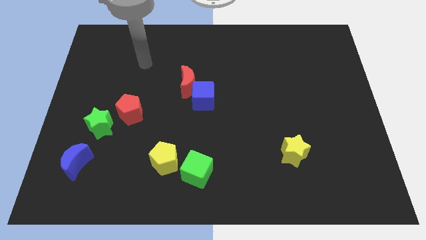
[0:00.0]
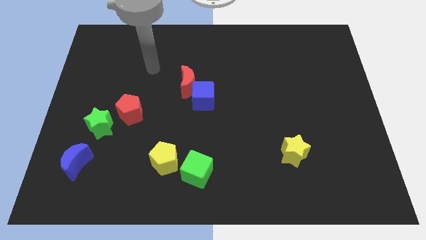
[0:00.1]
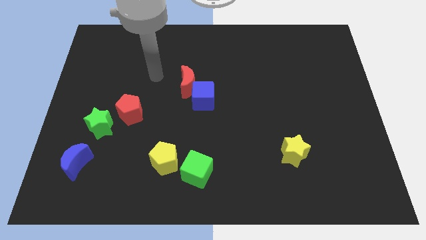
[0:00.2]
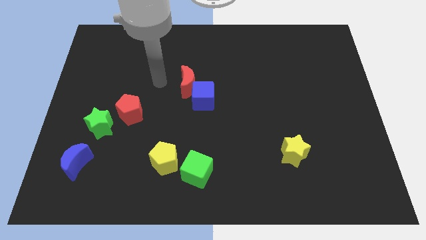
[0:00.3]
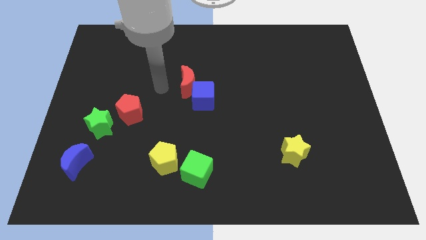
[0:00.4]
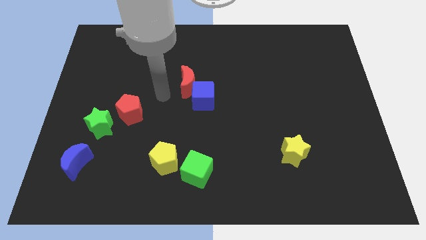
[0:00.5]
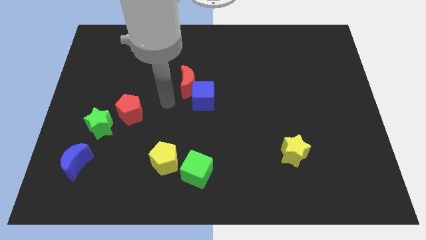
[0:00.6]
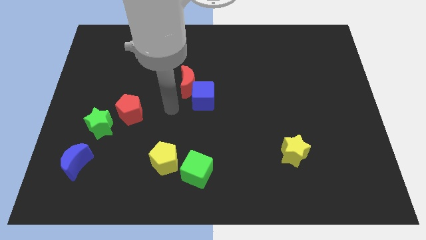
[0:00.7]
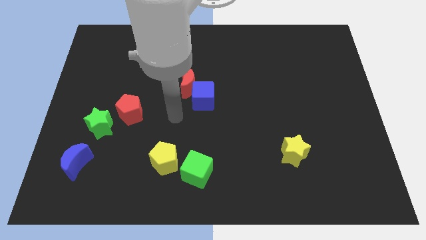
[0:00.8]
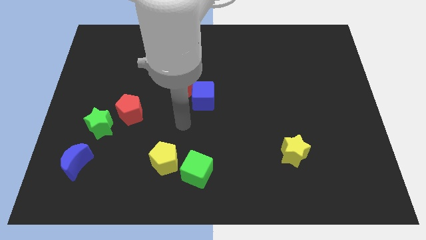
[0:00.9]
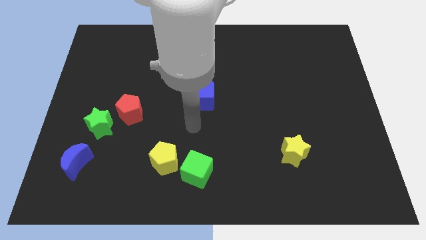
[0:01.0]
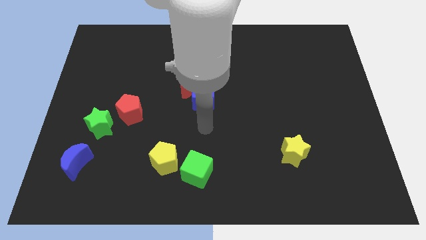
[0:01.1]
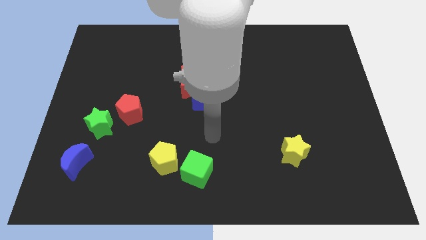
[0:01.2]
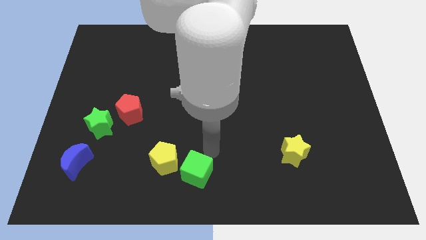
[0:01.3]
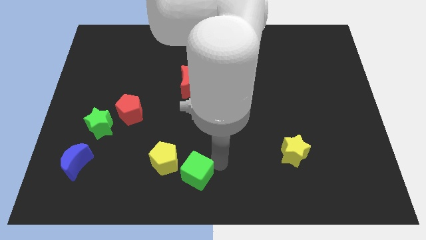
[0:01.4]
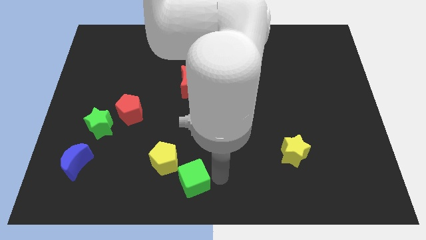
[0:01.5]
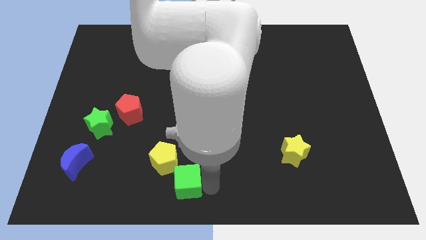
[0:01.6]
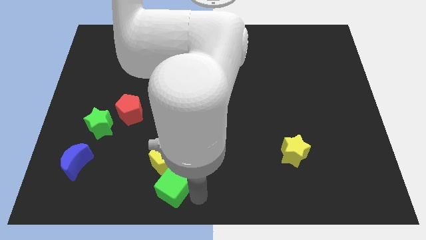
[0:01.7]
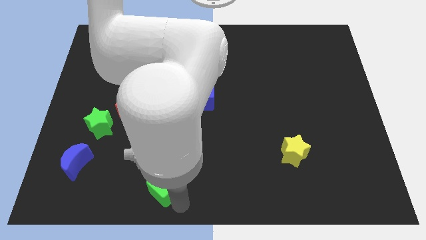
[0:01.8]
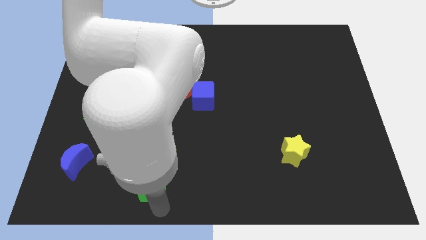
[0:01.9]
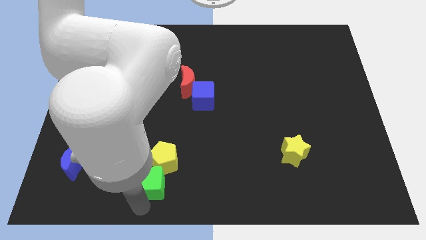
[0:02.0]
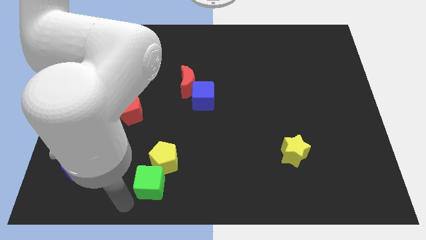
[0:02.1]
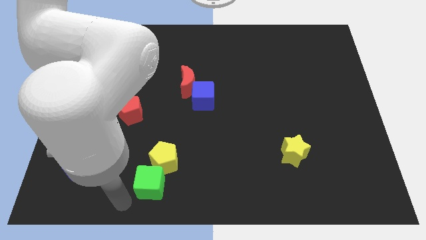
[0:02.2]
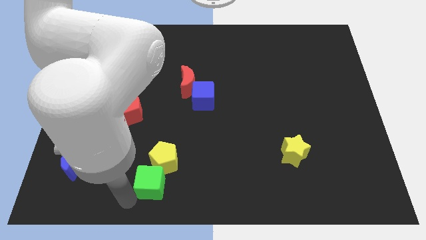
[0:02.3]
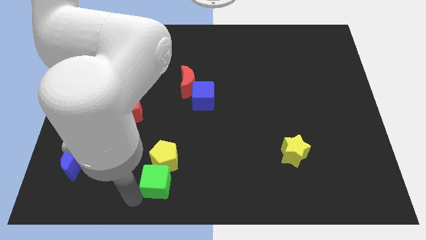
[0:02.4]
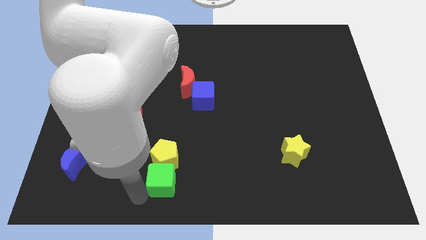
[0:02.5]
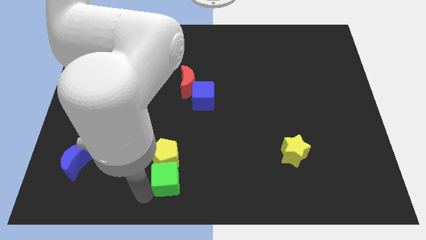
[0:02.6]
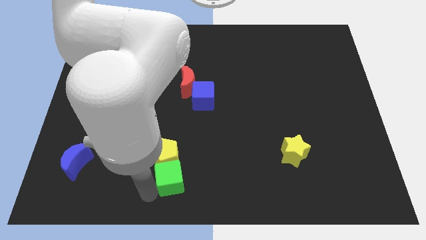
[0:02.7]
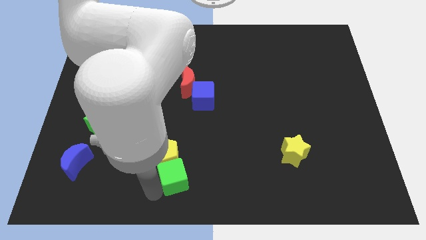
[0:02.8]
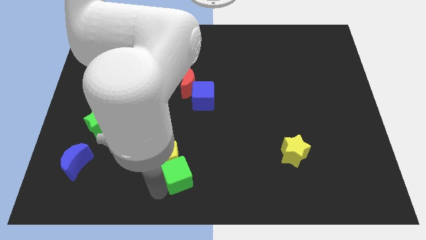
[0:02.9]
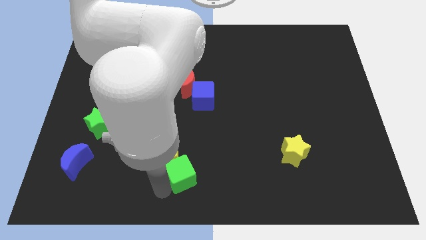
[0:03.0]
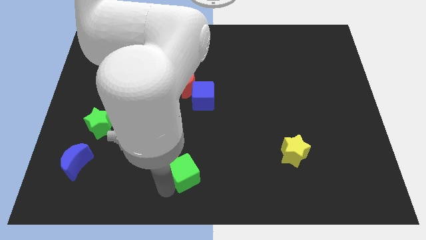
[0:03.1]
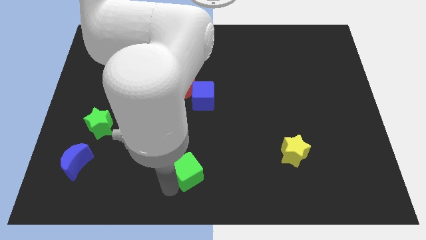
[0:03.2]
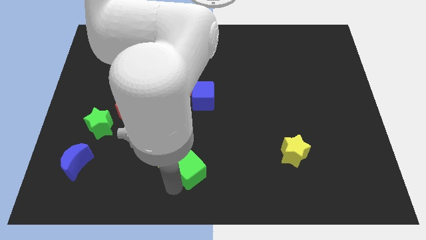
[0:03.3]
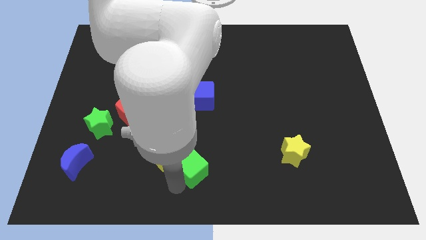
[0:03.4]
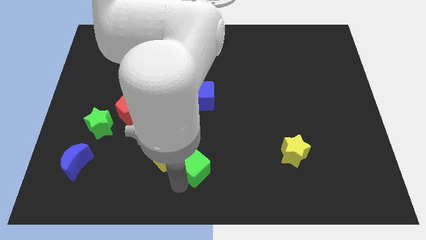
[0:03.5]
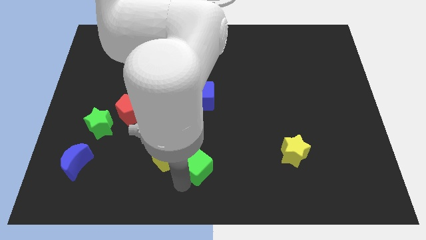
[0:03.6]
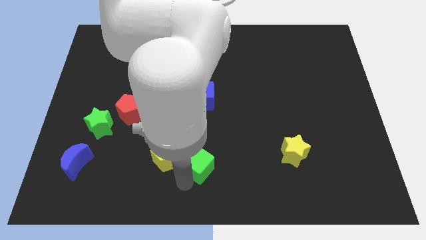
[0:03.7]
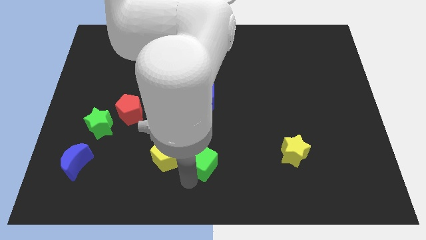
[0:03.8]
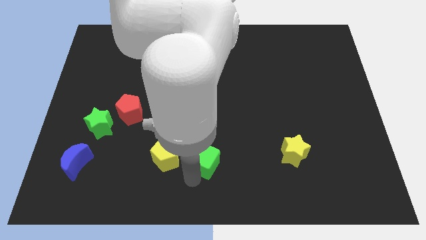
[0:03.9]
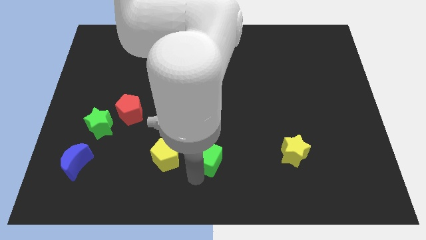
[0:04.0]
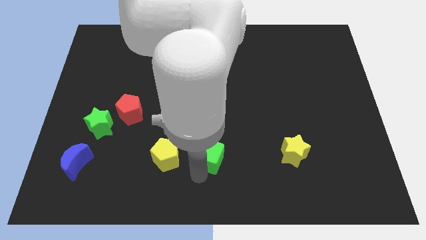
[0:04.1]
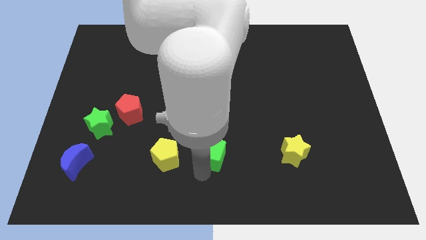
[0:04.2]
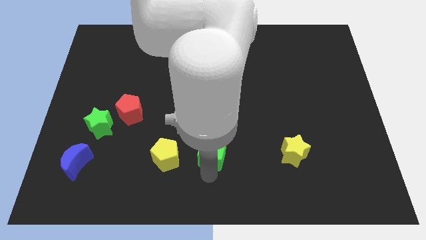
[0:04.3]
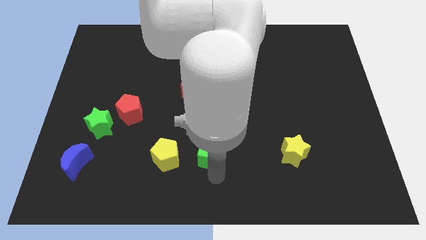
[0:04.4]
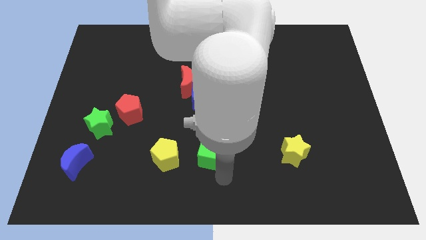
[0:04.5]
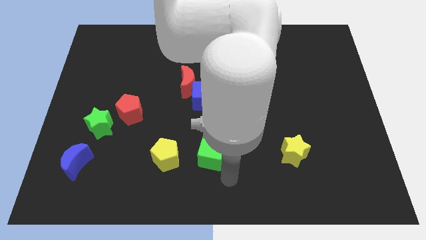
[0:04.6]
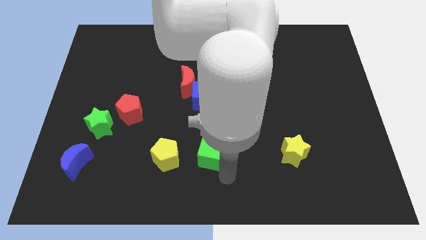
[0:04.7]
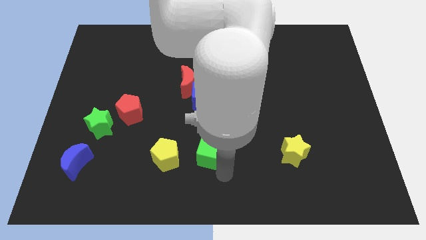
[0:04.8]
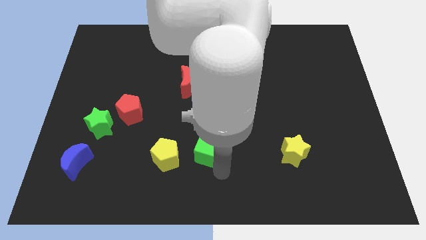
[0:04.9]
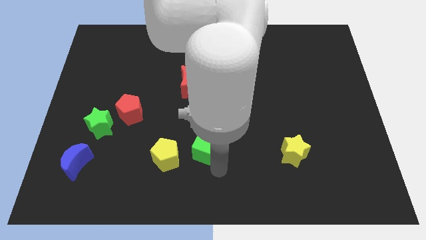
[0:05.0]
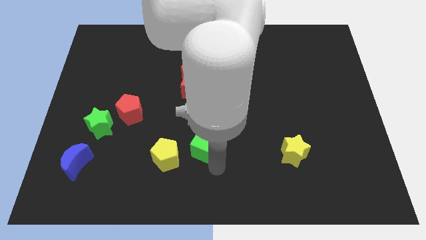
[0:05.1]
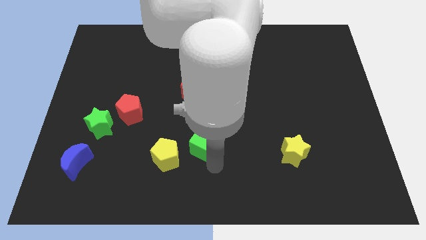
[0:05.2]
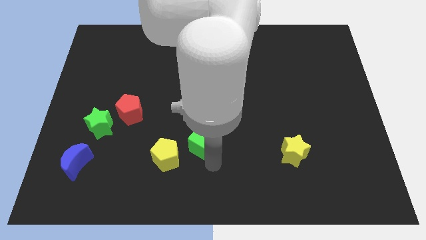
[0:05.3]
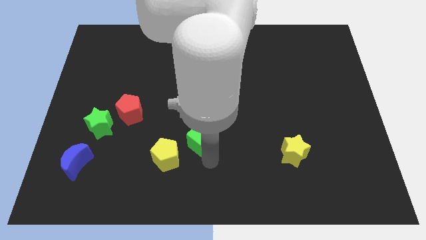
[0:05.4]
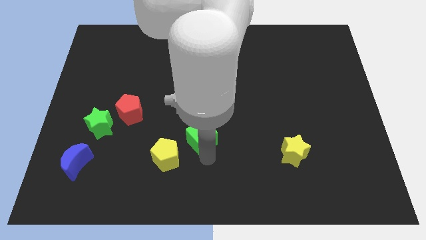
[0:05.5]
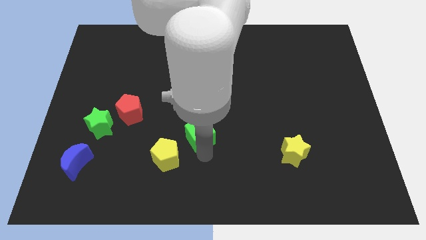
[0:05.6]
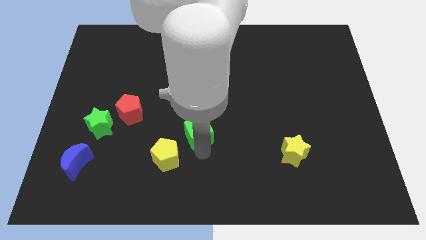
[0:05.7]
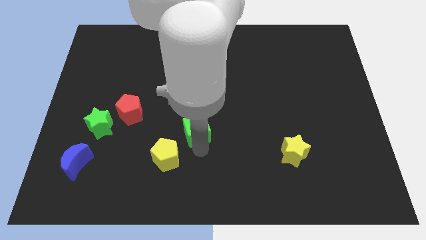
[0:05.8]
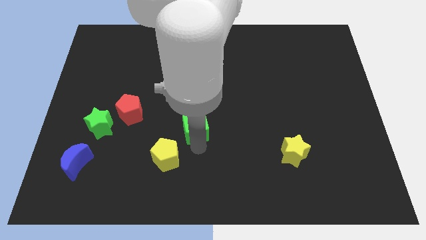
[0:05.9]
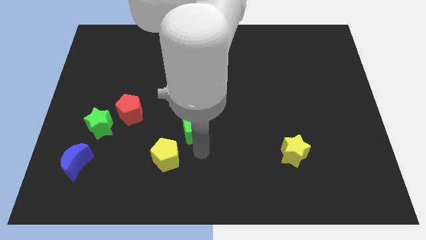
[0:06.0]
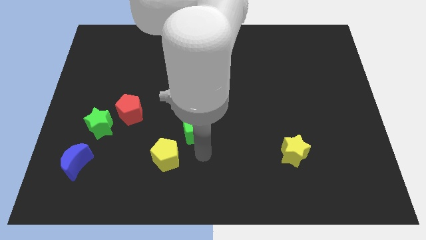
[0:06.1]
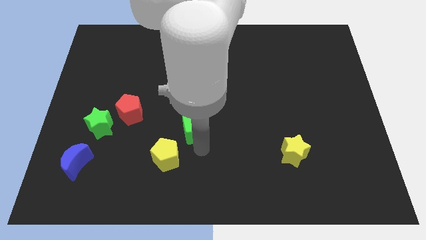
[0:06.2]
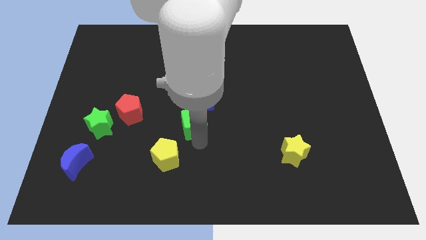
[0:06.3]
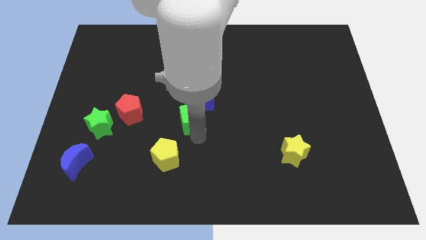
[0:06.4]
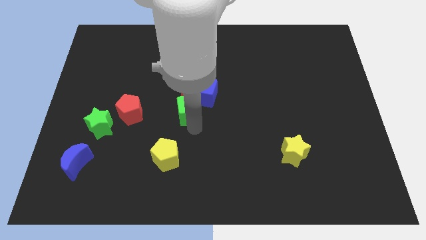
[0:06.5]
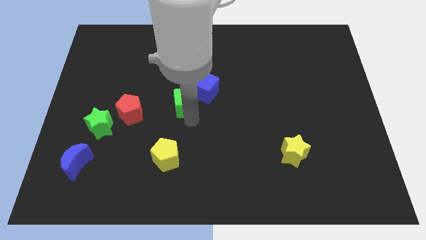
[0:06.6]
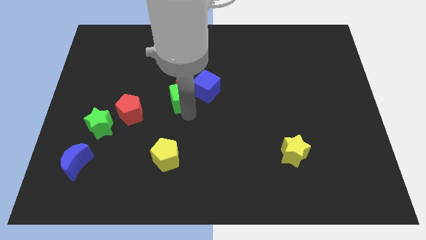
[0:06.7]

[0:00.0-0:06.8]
move the green cube close to the red moon

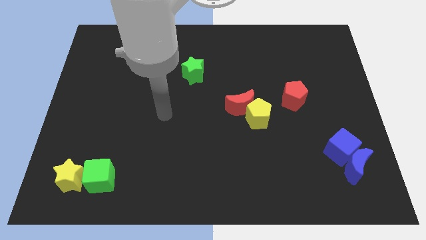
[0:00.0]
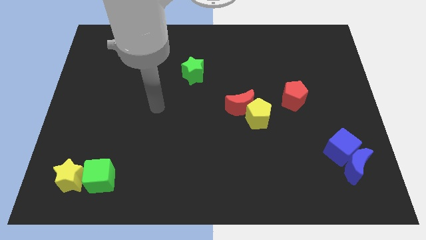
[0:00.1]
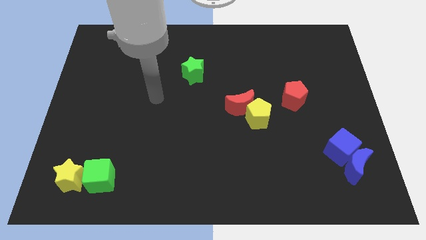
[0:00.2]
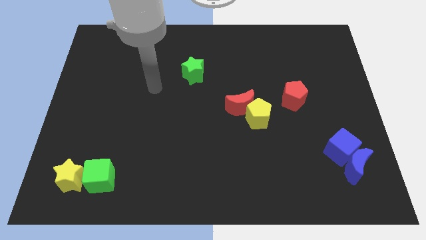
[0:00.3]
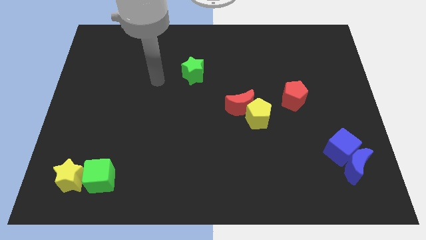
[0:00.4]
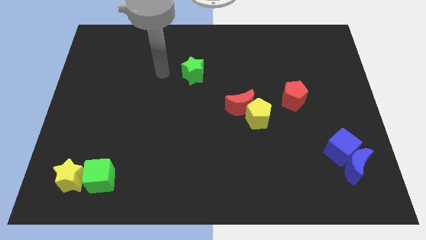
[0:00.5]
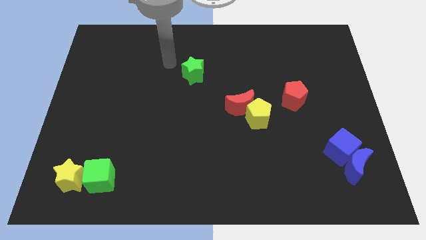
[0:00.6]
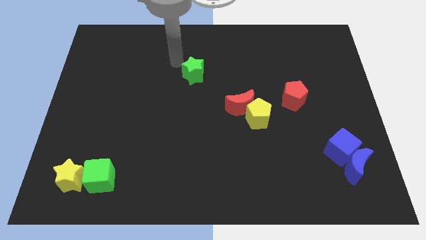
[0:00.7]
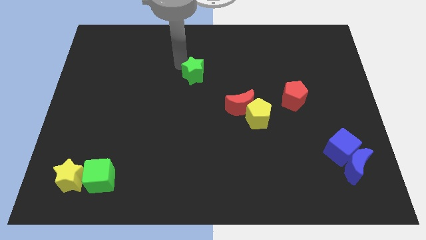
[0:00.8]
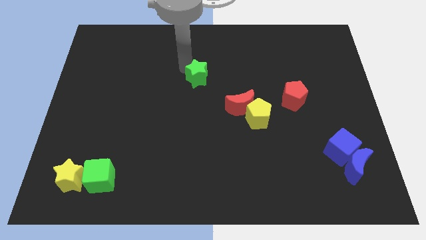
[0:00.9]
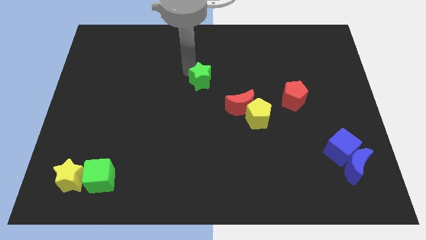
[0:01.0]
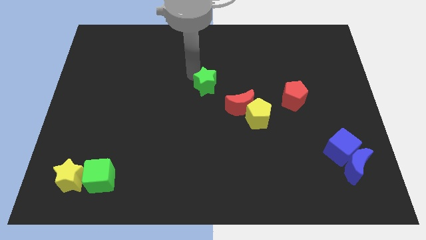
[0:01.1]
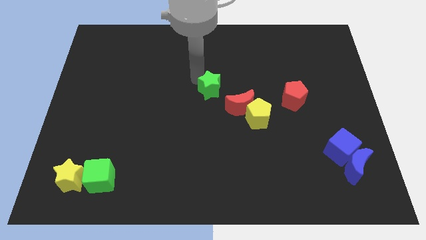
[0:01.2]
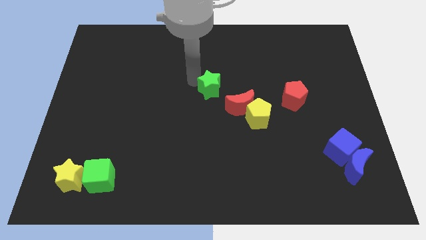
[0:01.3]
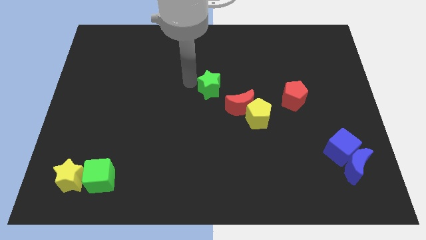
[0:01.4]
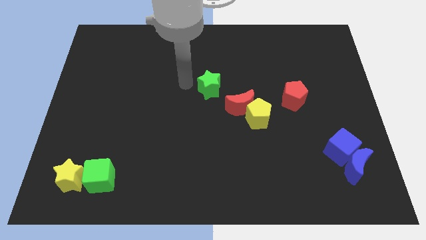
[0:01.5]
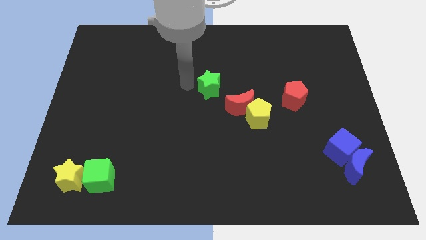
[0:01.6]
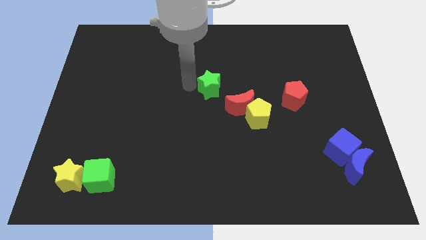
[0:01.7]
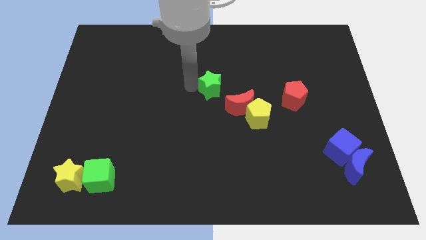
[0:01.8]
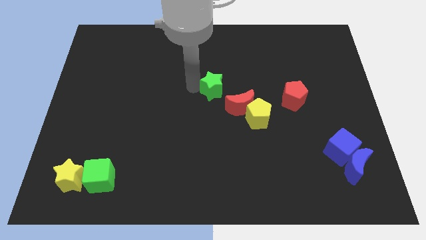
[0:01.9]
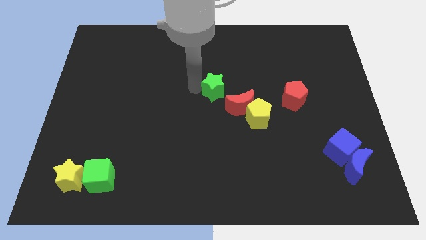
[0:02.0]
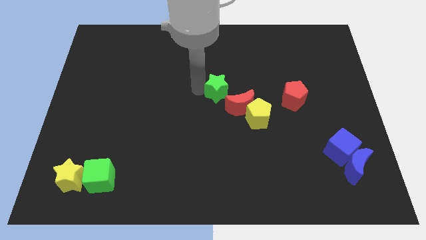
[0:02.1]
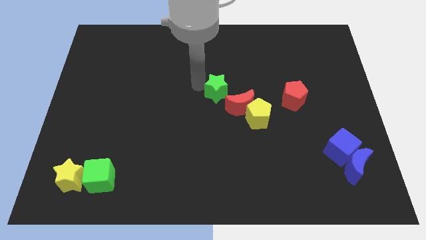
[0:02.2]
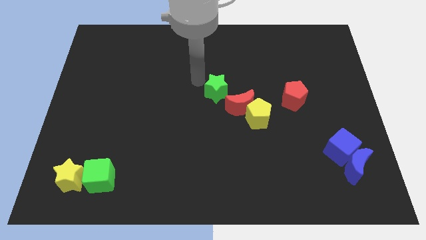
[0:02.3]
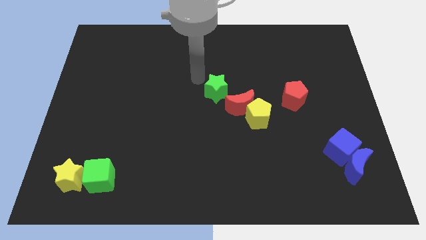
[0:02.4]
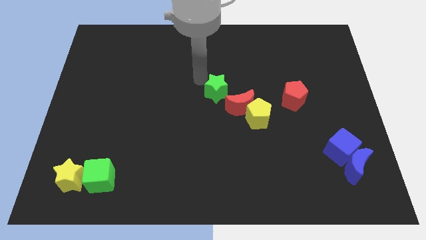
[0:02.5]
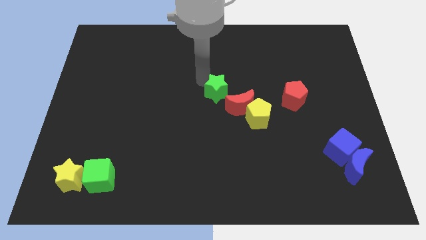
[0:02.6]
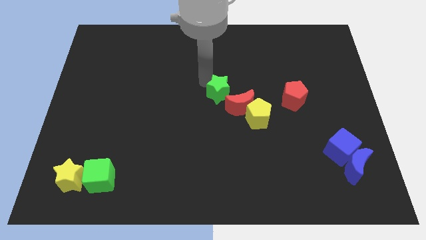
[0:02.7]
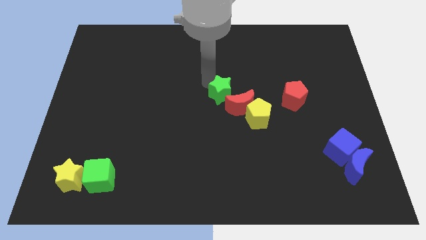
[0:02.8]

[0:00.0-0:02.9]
put the green star towards the red moon
